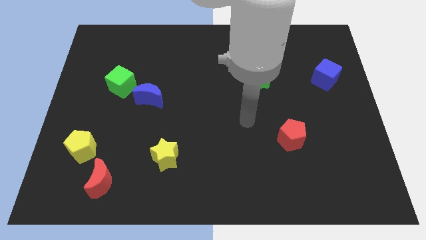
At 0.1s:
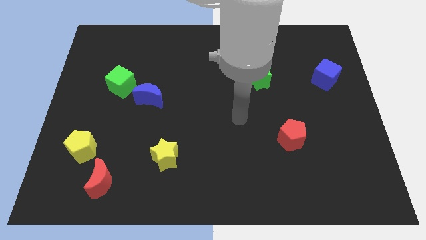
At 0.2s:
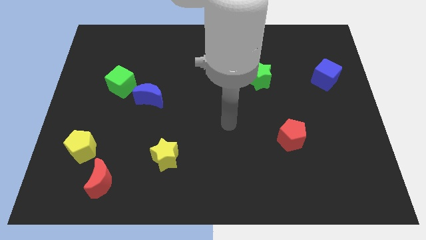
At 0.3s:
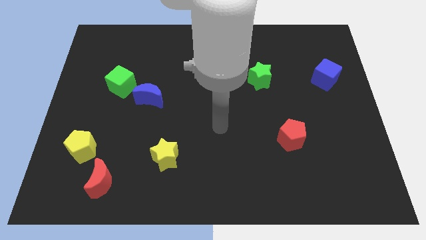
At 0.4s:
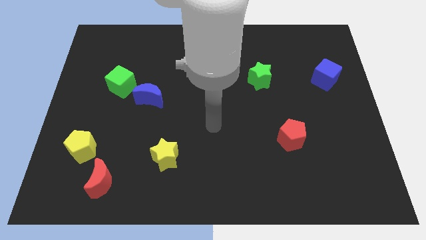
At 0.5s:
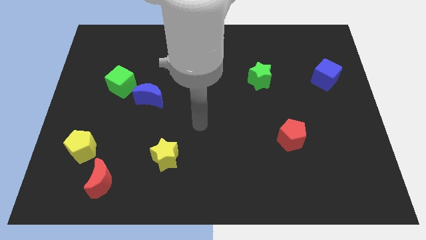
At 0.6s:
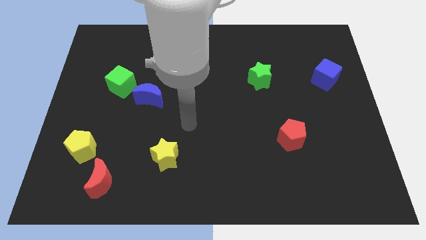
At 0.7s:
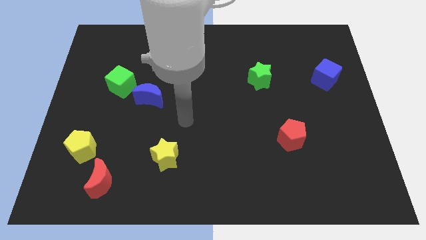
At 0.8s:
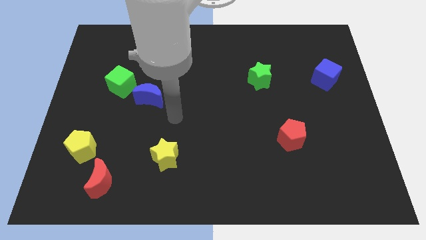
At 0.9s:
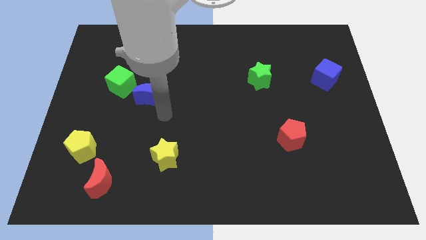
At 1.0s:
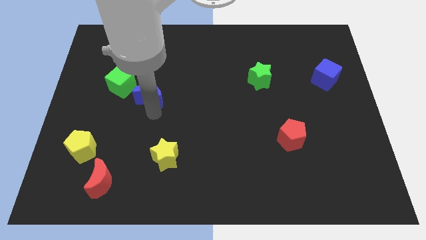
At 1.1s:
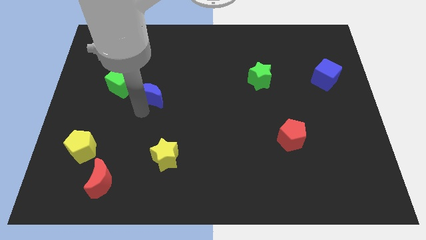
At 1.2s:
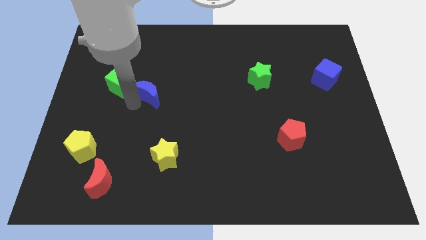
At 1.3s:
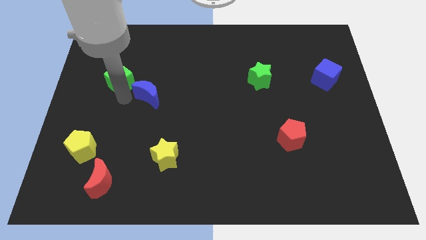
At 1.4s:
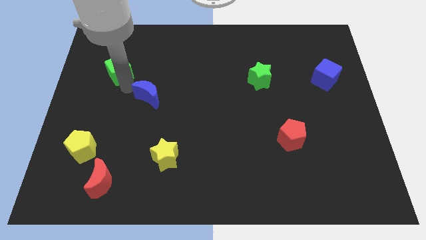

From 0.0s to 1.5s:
move the blue moon away from the green cube

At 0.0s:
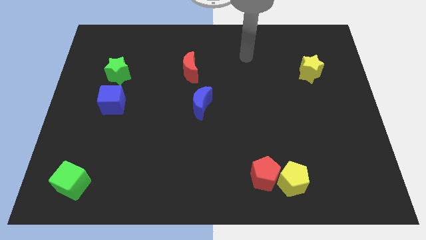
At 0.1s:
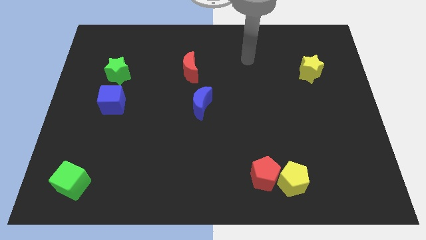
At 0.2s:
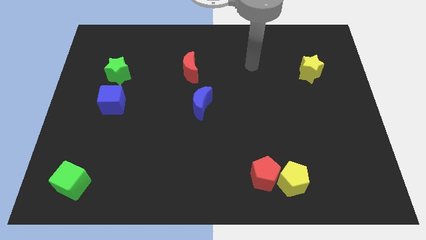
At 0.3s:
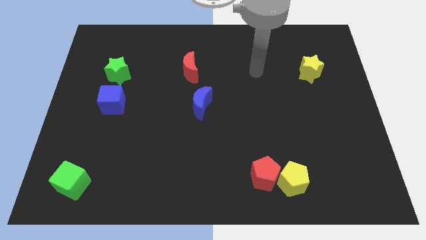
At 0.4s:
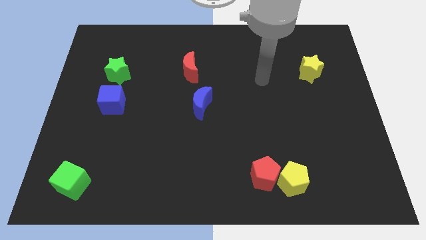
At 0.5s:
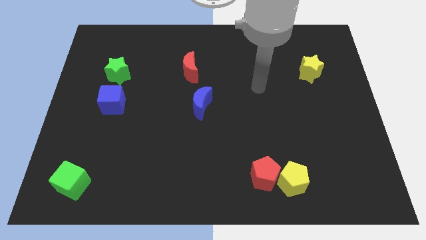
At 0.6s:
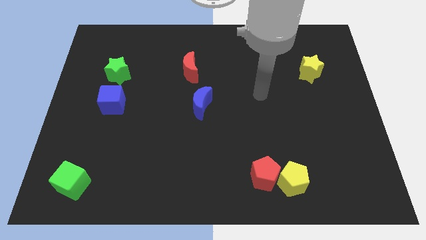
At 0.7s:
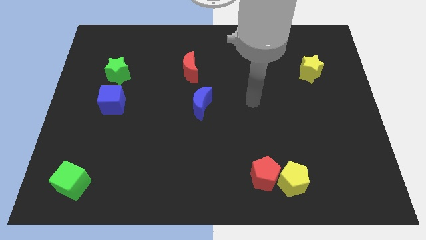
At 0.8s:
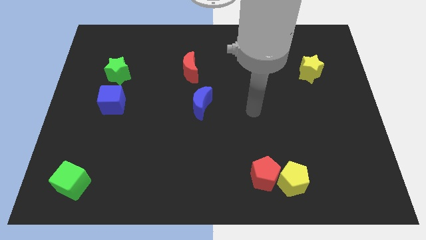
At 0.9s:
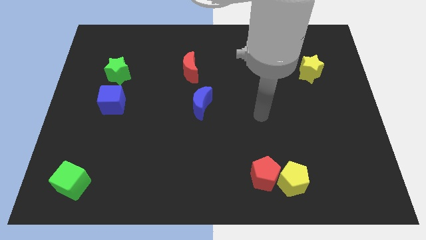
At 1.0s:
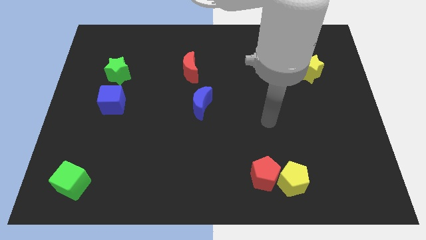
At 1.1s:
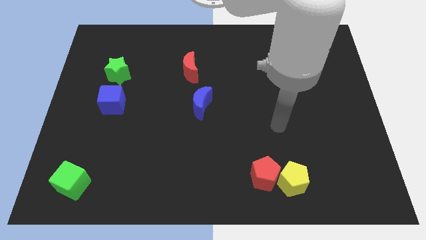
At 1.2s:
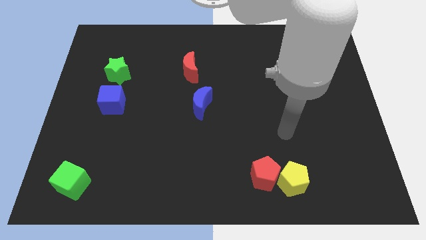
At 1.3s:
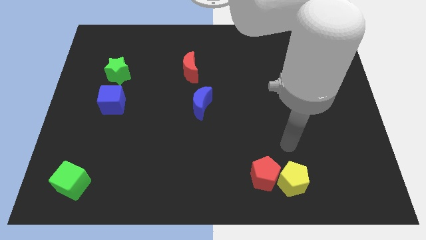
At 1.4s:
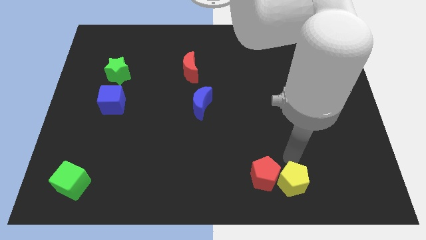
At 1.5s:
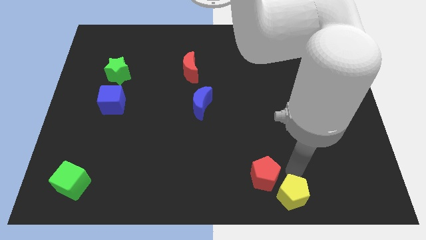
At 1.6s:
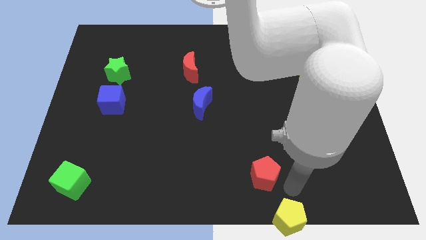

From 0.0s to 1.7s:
move the red pentagon away from the yellow pentagon

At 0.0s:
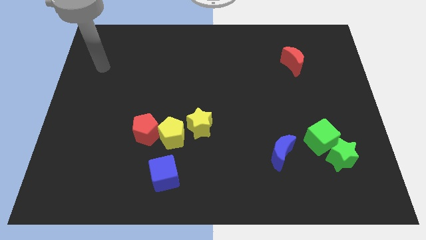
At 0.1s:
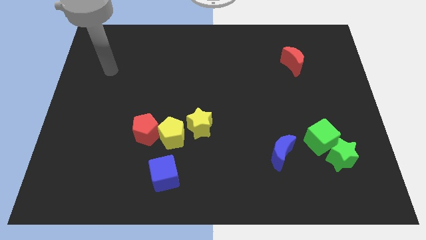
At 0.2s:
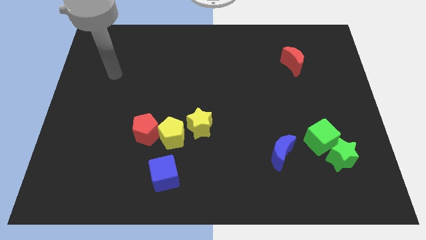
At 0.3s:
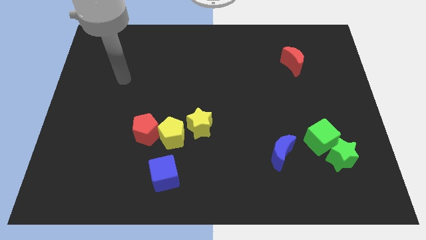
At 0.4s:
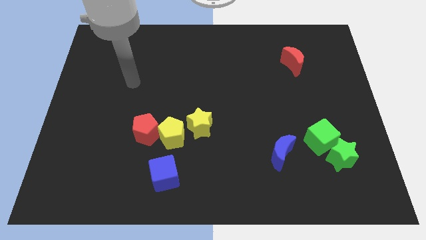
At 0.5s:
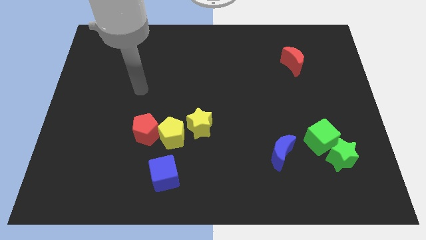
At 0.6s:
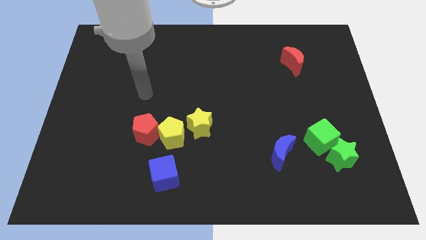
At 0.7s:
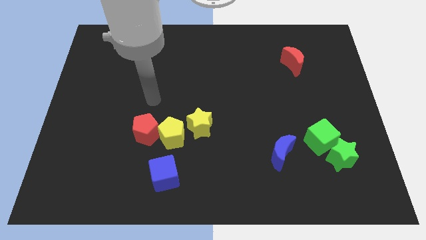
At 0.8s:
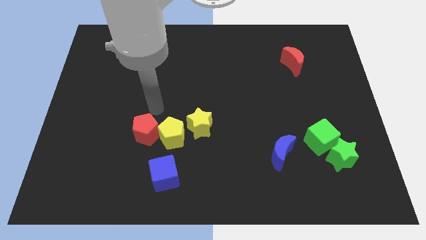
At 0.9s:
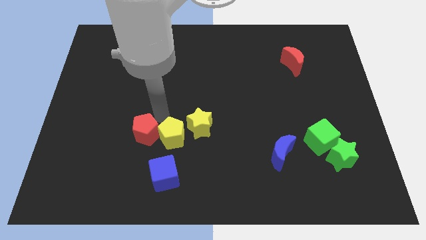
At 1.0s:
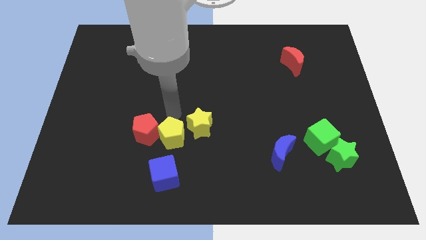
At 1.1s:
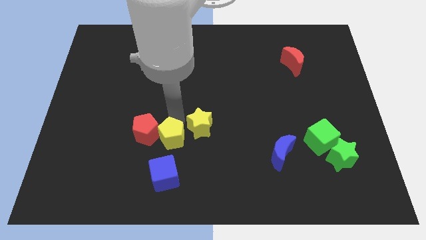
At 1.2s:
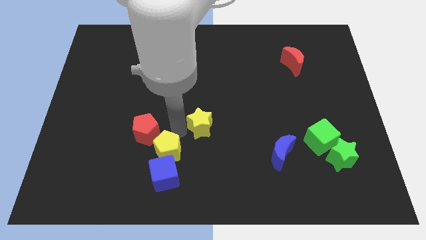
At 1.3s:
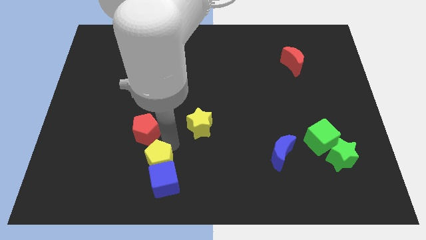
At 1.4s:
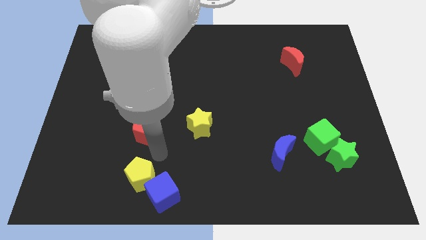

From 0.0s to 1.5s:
pull the red pentagon apart from the yellow pentagon

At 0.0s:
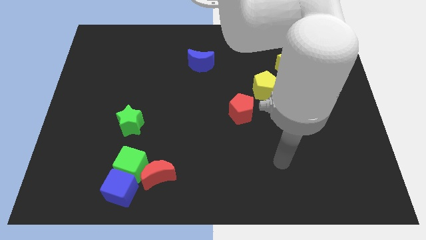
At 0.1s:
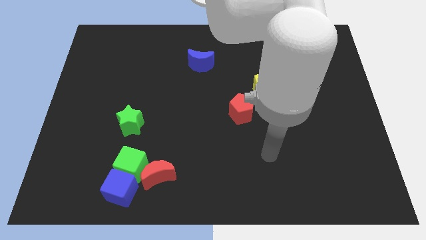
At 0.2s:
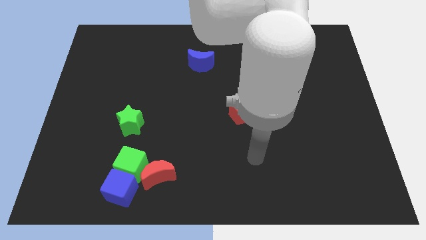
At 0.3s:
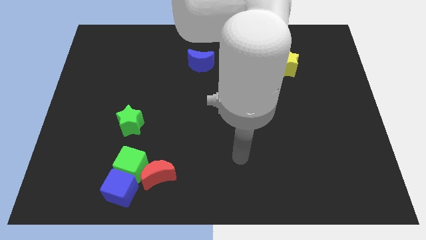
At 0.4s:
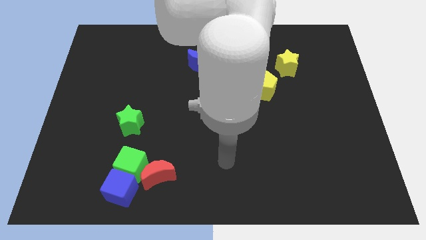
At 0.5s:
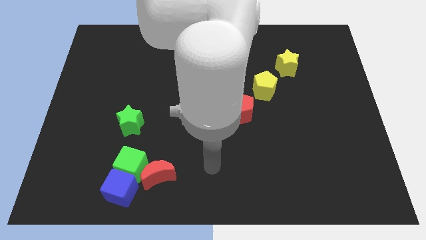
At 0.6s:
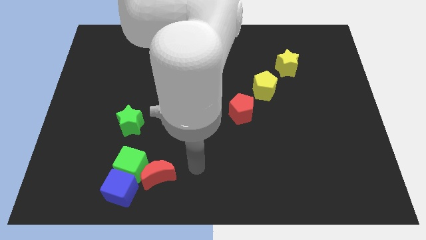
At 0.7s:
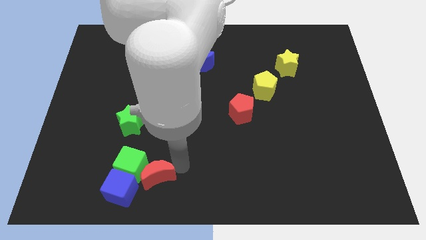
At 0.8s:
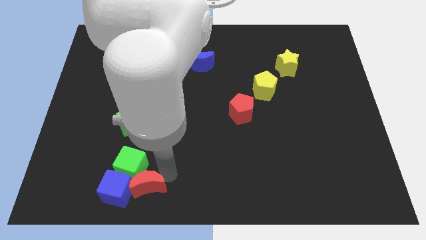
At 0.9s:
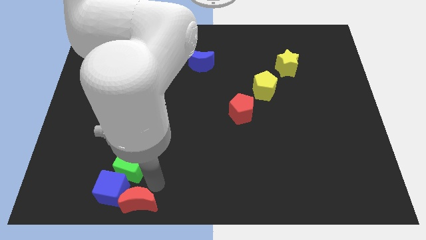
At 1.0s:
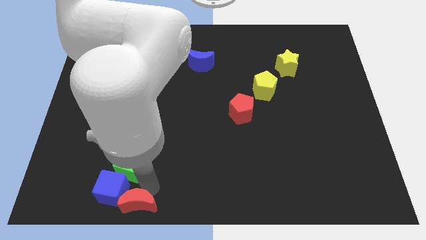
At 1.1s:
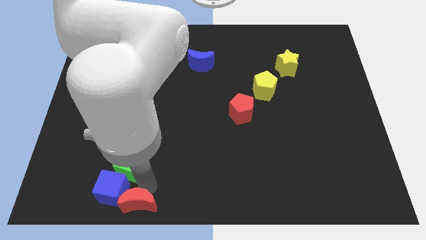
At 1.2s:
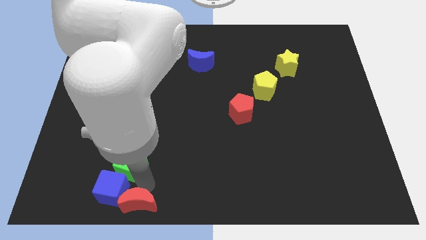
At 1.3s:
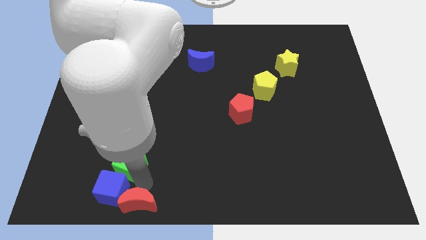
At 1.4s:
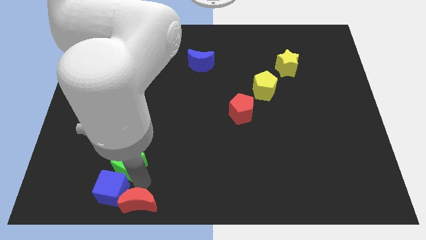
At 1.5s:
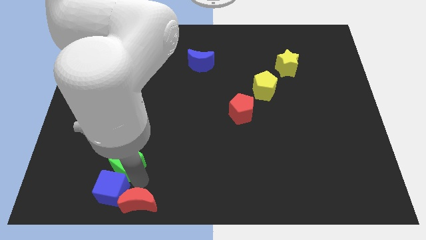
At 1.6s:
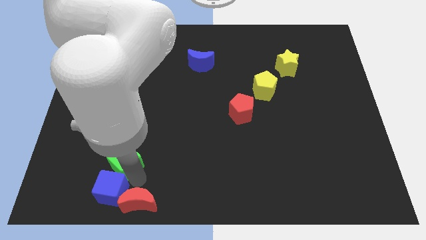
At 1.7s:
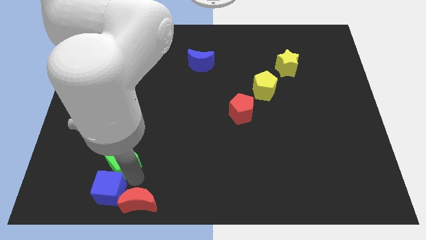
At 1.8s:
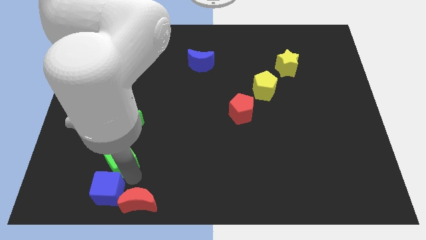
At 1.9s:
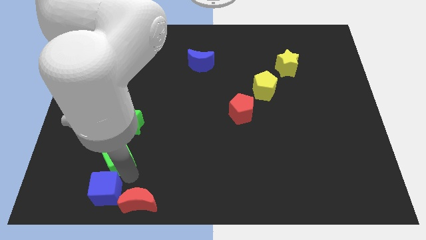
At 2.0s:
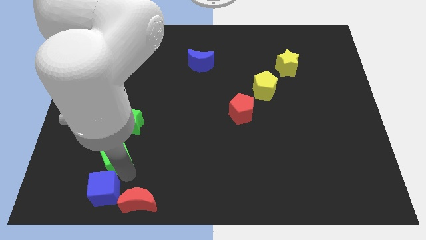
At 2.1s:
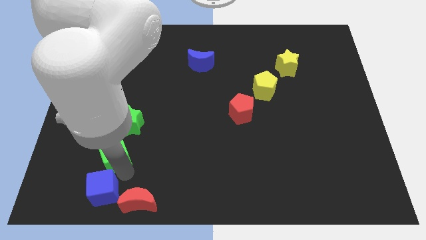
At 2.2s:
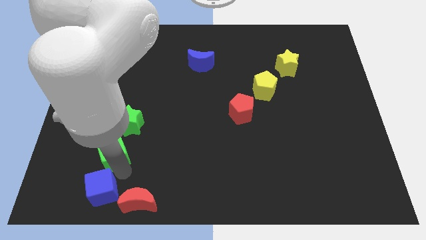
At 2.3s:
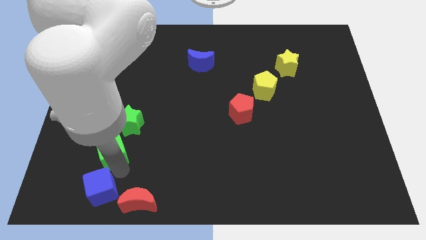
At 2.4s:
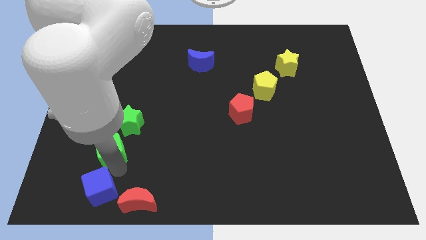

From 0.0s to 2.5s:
separate the green cube from the blue cube and red moon

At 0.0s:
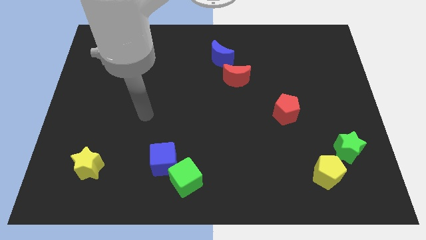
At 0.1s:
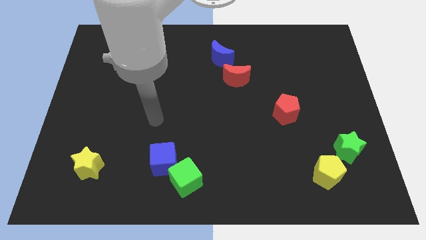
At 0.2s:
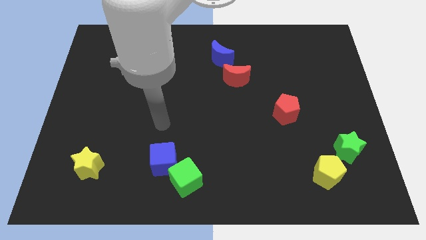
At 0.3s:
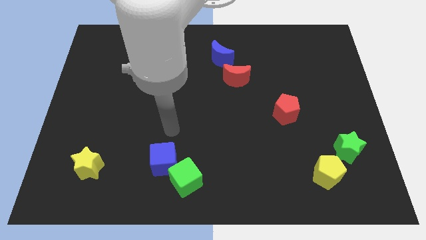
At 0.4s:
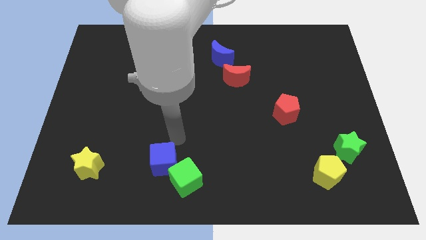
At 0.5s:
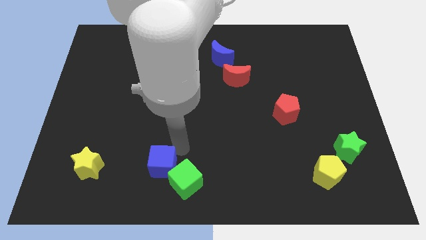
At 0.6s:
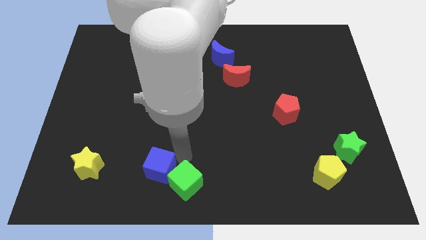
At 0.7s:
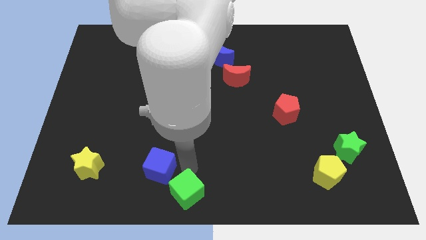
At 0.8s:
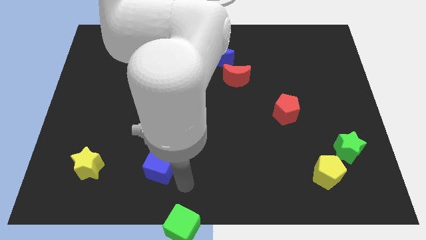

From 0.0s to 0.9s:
move the blue cube away from the green cube

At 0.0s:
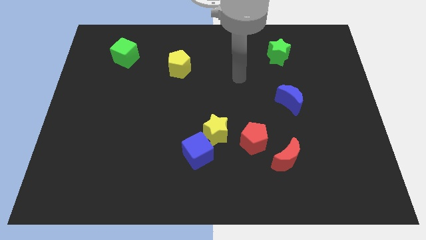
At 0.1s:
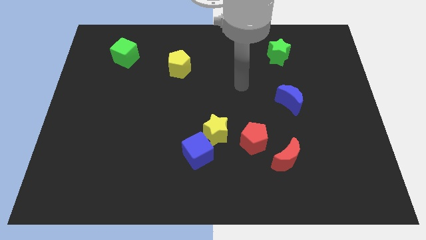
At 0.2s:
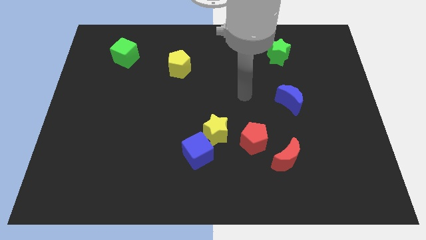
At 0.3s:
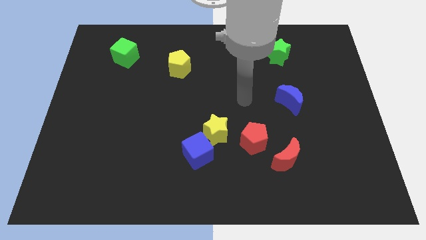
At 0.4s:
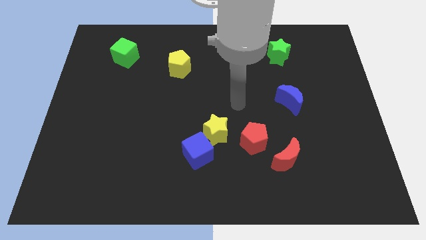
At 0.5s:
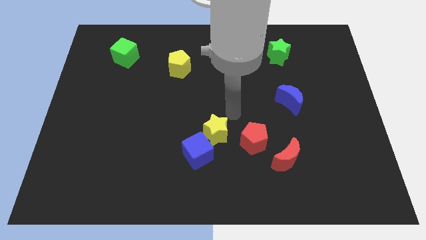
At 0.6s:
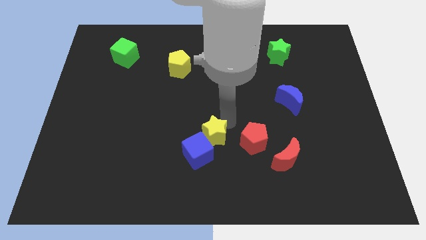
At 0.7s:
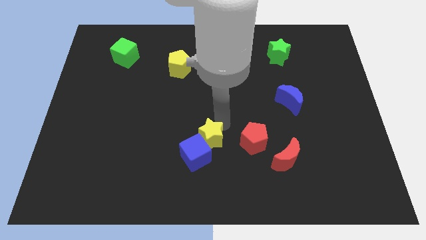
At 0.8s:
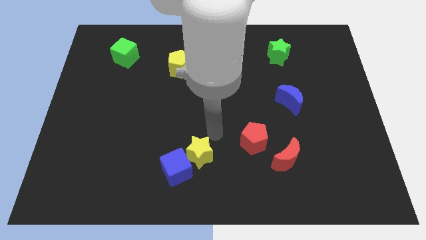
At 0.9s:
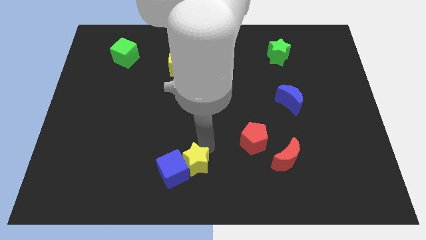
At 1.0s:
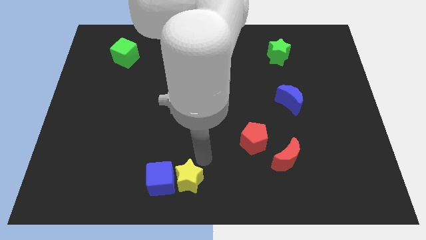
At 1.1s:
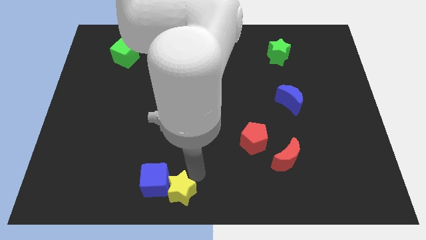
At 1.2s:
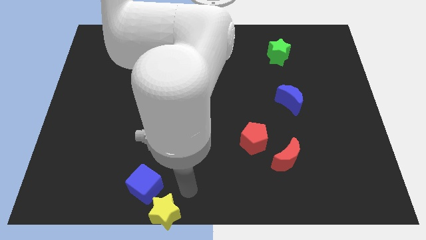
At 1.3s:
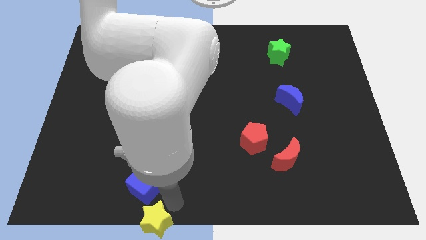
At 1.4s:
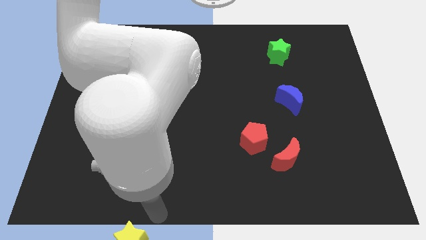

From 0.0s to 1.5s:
pull the blue cube apart from the yellow star
